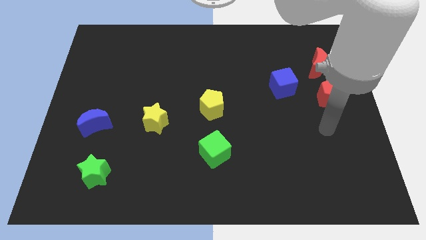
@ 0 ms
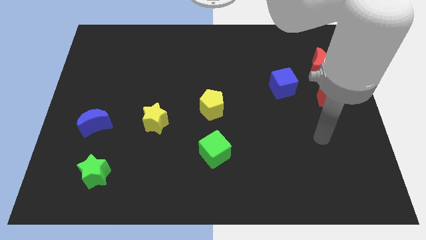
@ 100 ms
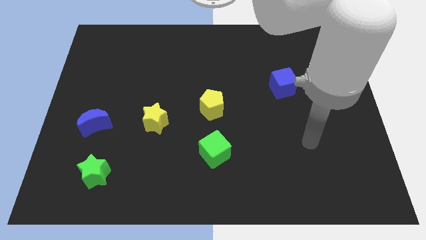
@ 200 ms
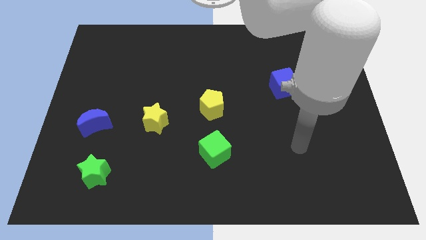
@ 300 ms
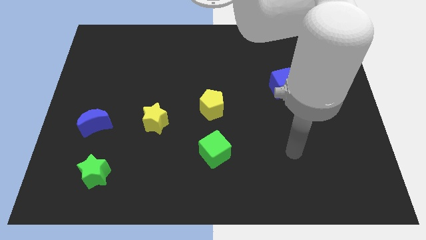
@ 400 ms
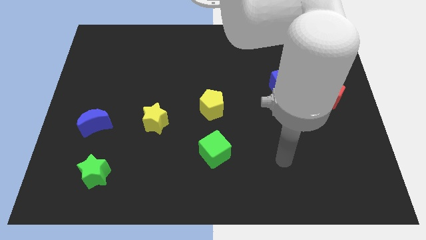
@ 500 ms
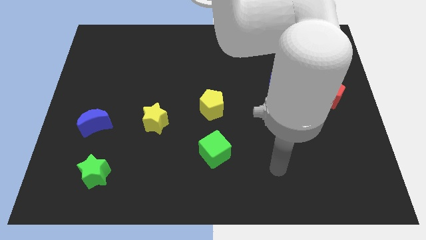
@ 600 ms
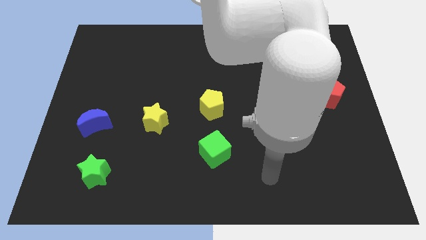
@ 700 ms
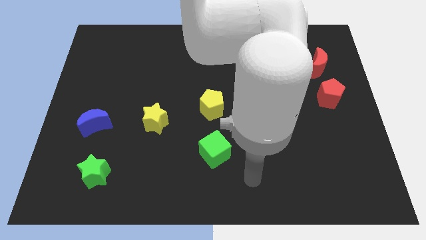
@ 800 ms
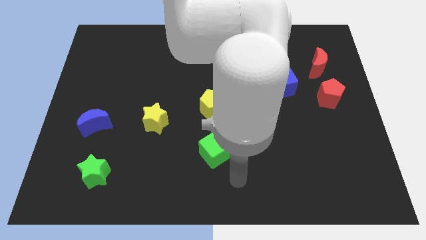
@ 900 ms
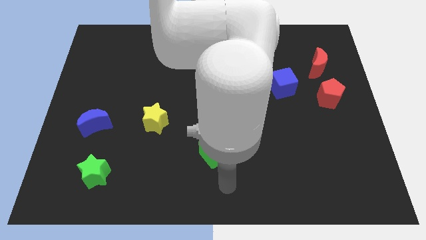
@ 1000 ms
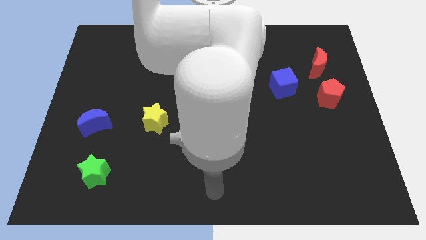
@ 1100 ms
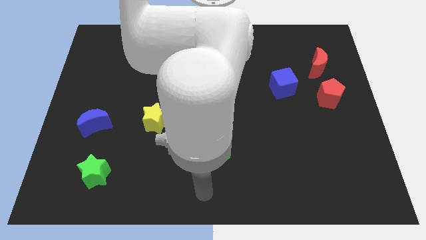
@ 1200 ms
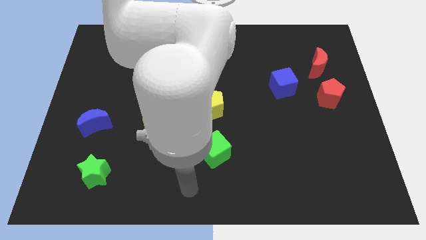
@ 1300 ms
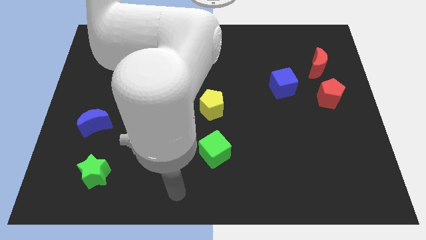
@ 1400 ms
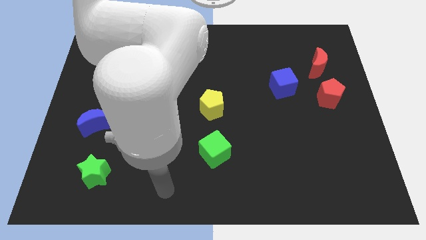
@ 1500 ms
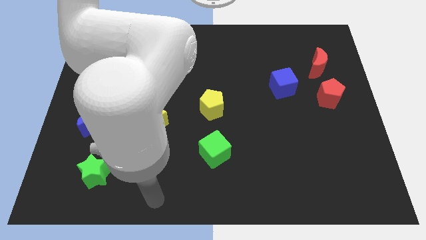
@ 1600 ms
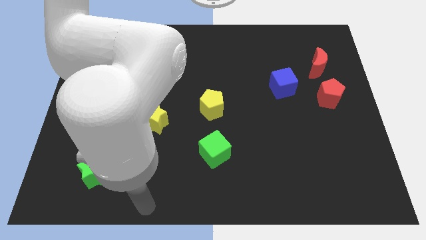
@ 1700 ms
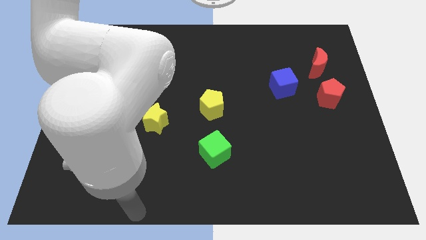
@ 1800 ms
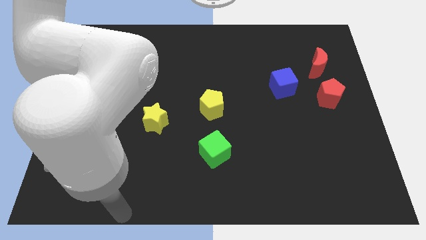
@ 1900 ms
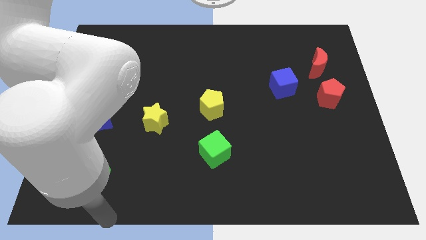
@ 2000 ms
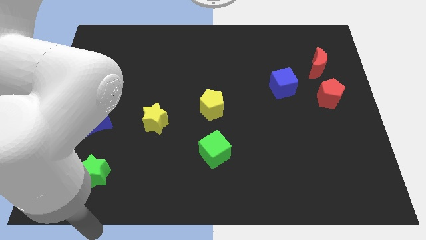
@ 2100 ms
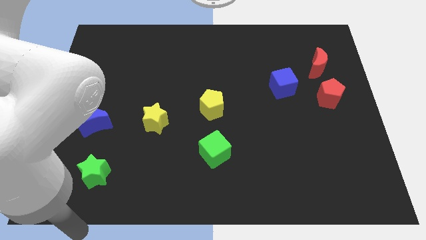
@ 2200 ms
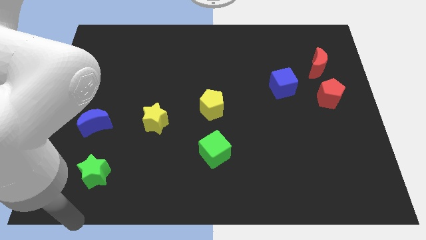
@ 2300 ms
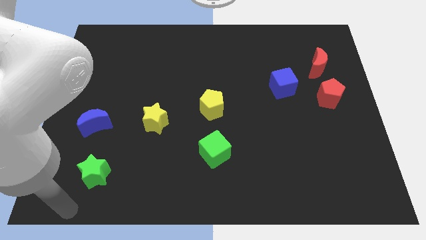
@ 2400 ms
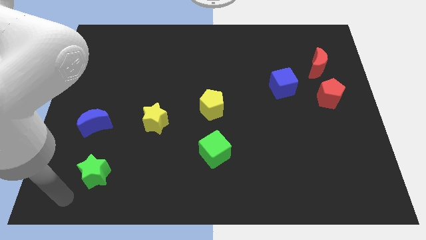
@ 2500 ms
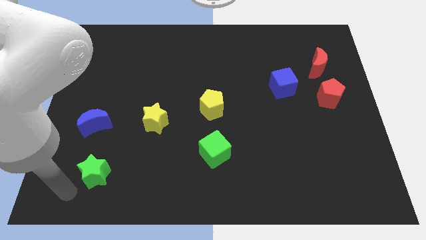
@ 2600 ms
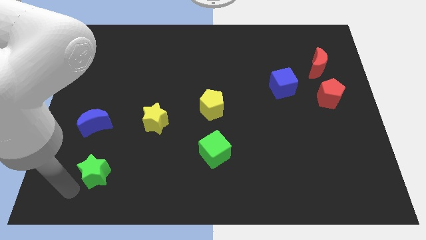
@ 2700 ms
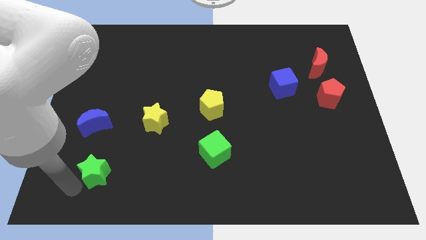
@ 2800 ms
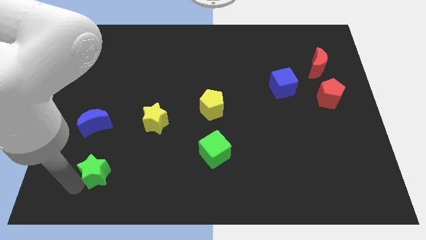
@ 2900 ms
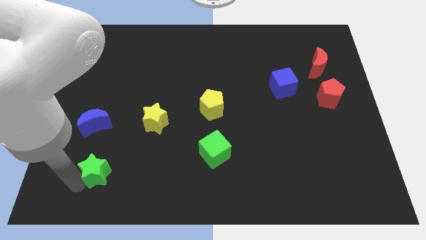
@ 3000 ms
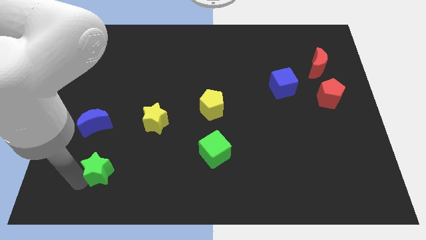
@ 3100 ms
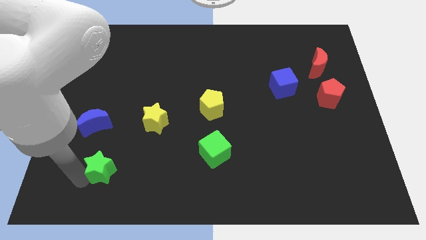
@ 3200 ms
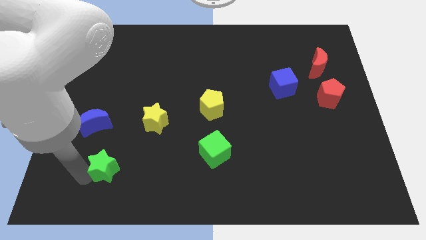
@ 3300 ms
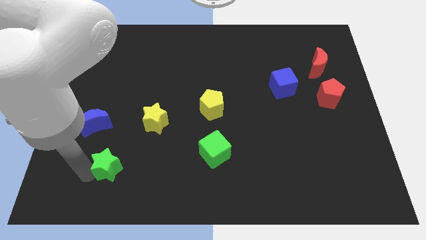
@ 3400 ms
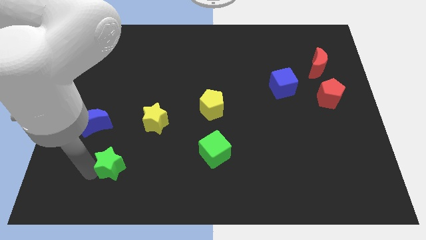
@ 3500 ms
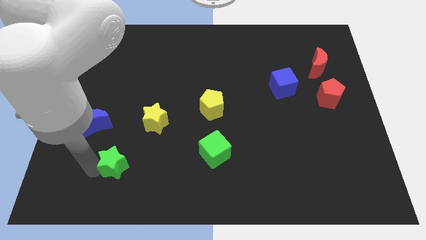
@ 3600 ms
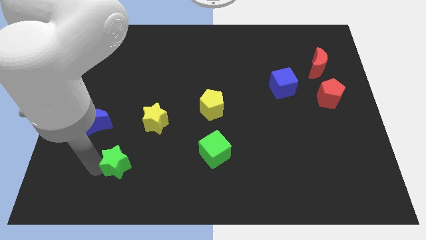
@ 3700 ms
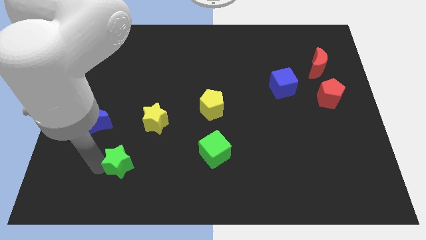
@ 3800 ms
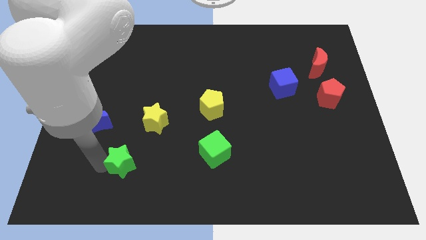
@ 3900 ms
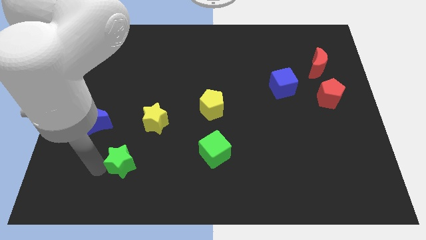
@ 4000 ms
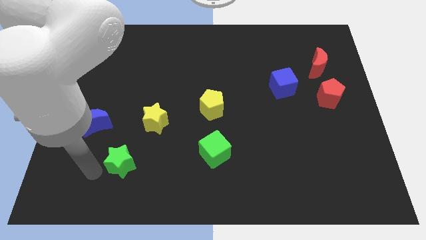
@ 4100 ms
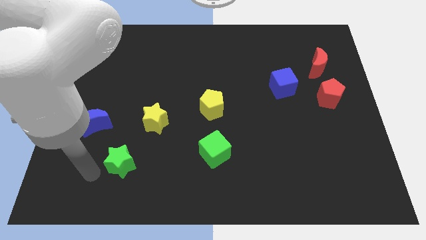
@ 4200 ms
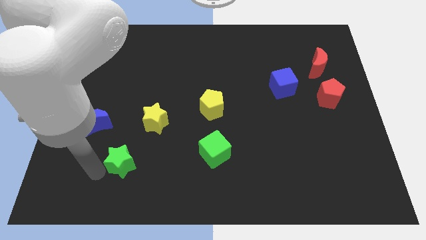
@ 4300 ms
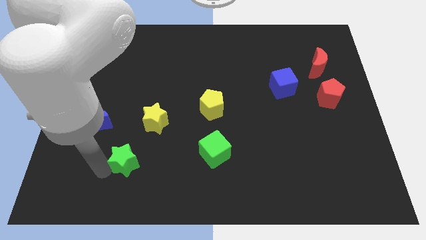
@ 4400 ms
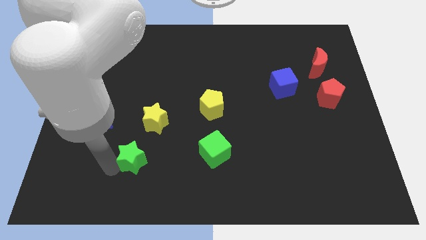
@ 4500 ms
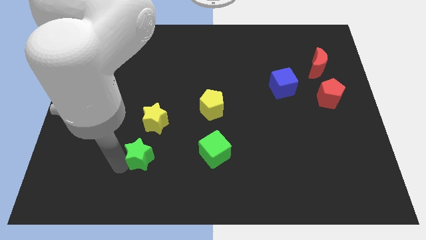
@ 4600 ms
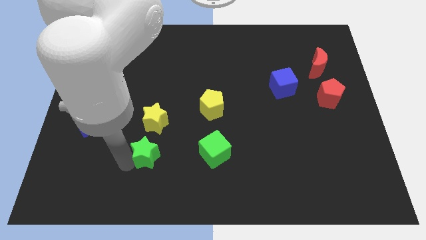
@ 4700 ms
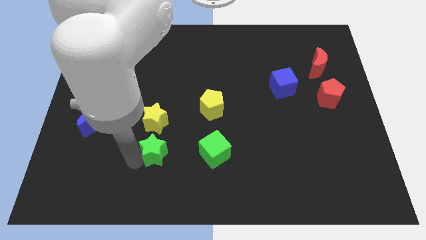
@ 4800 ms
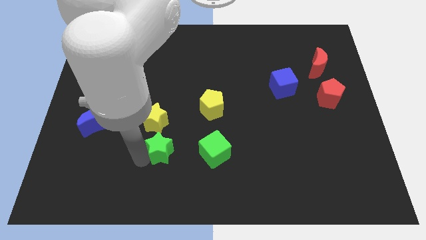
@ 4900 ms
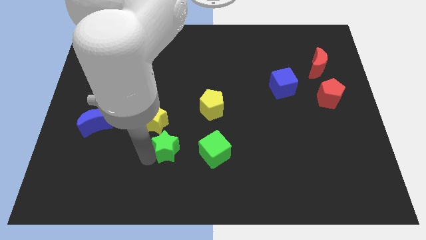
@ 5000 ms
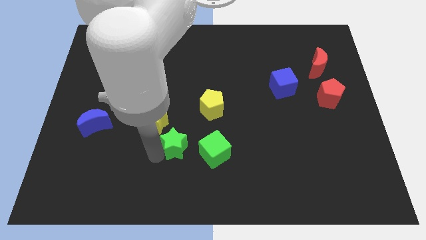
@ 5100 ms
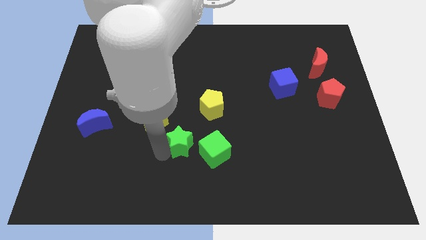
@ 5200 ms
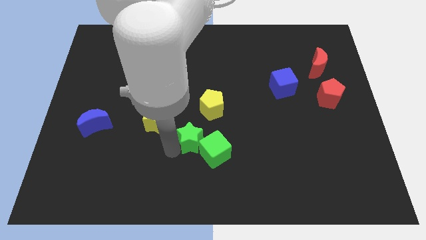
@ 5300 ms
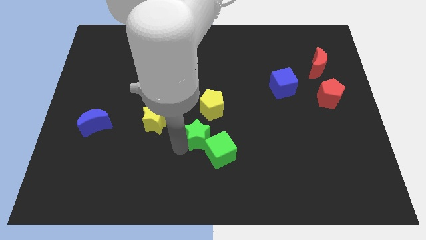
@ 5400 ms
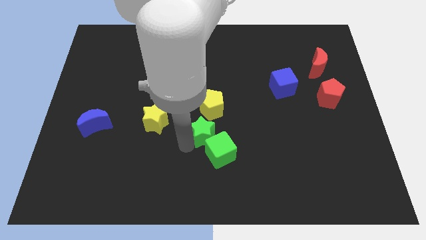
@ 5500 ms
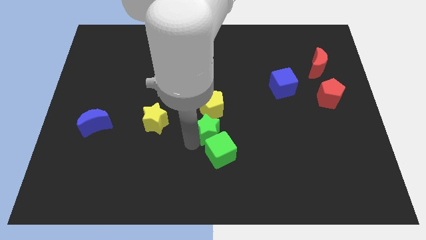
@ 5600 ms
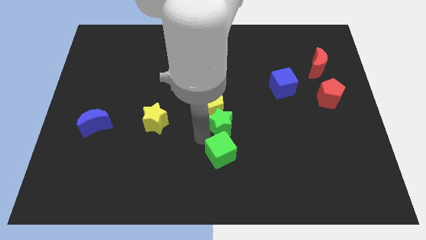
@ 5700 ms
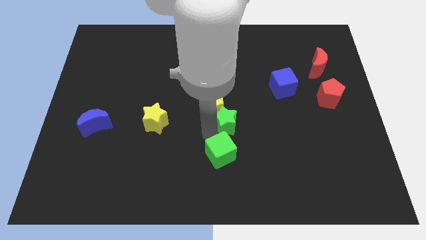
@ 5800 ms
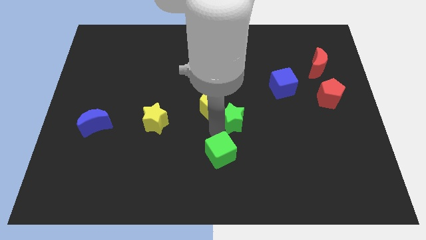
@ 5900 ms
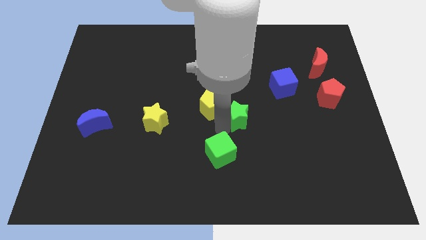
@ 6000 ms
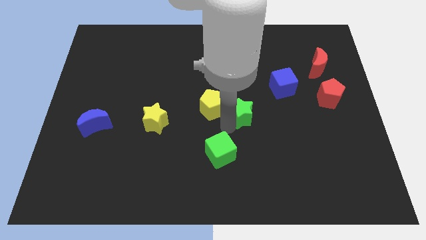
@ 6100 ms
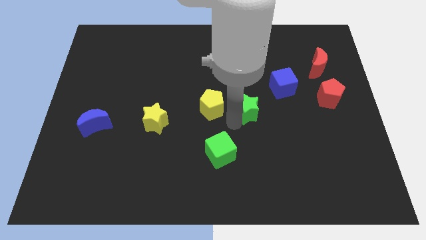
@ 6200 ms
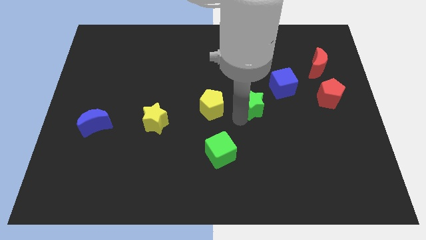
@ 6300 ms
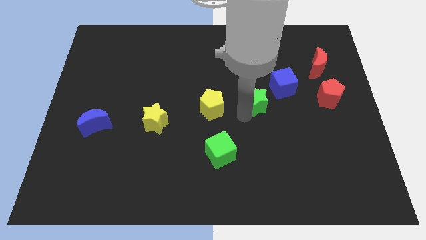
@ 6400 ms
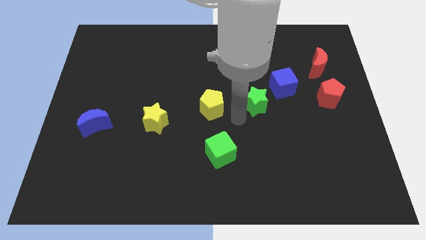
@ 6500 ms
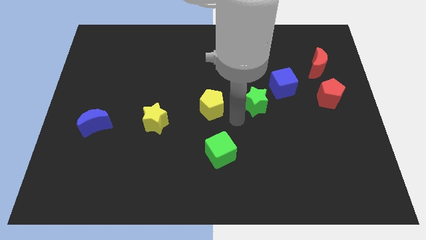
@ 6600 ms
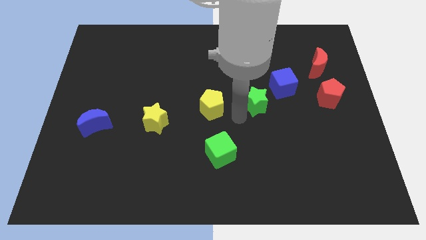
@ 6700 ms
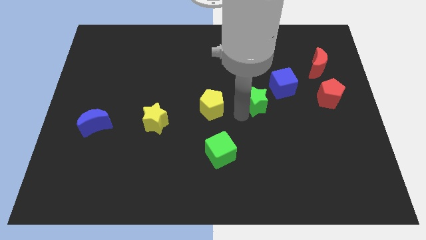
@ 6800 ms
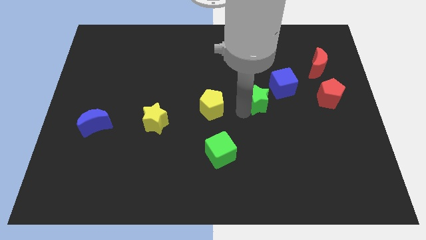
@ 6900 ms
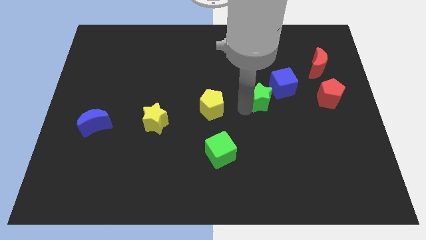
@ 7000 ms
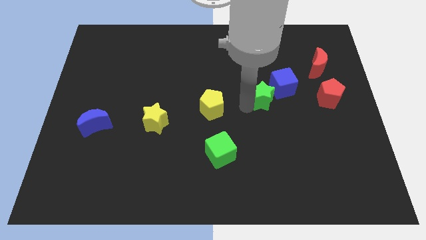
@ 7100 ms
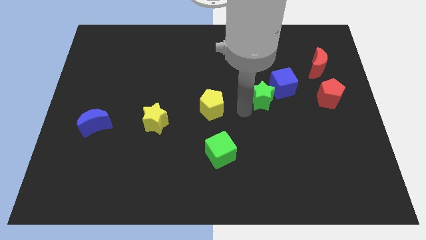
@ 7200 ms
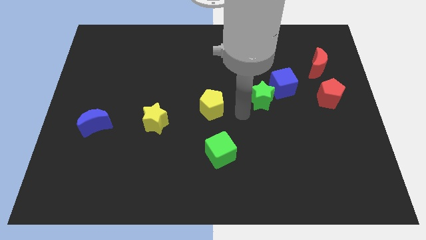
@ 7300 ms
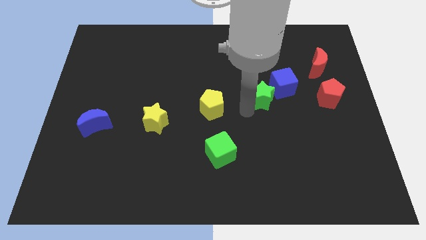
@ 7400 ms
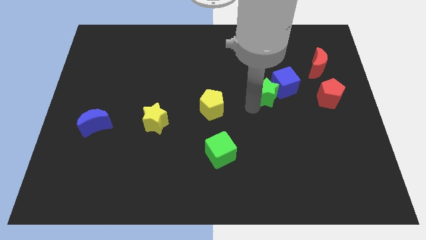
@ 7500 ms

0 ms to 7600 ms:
put the green star close to the blue cube
